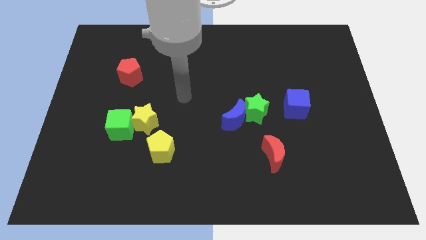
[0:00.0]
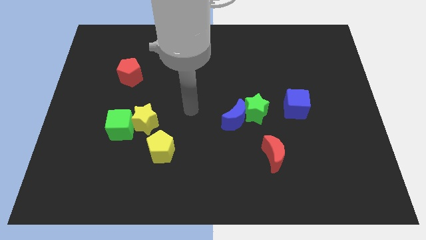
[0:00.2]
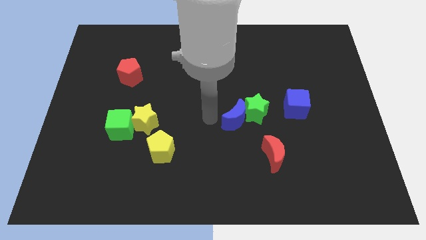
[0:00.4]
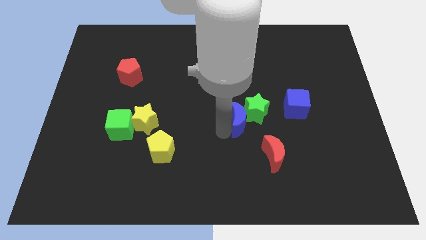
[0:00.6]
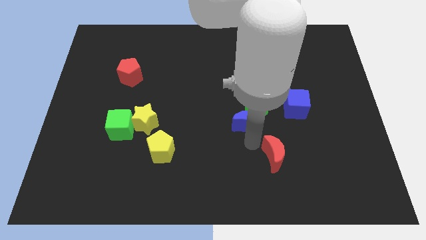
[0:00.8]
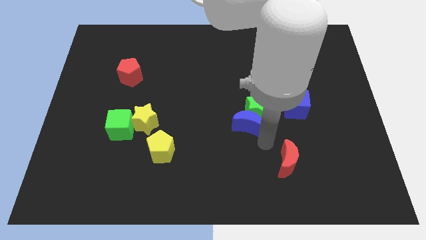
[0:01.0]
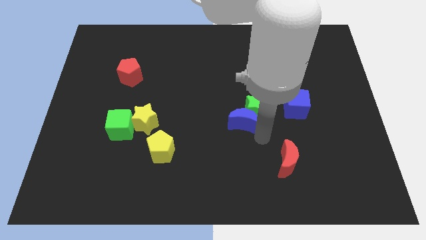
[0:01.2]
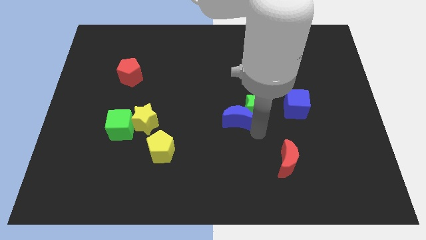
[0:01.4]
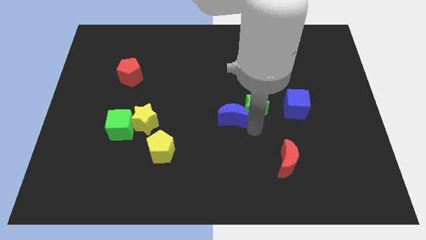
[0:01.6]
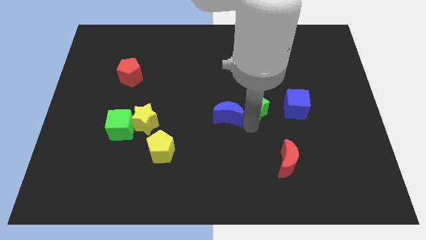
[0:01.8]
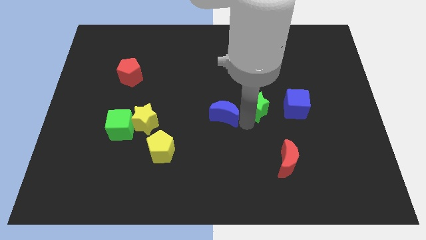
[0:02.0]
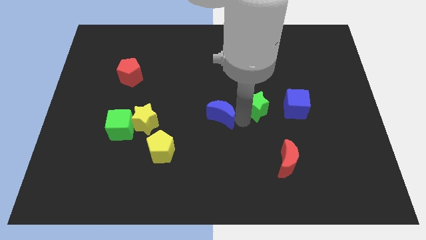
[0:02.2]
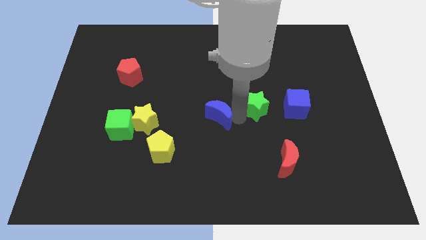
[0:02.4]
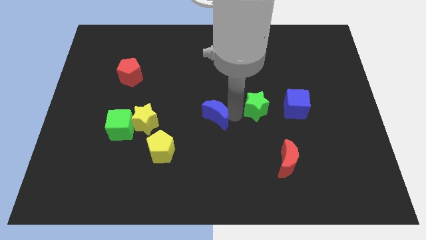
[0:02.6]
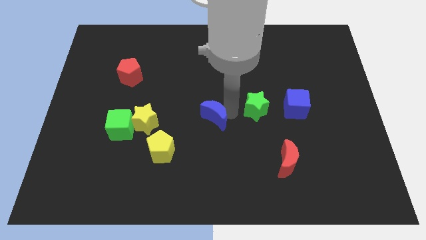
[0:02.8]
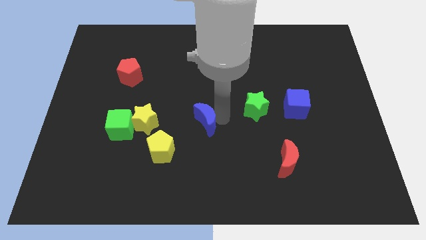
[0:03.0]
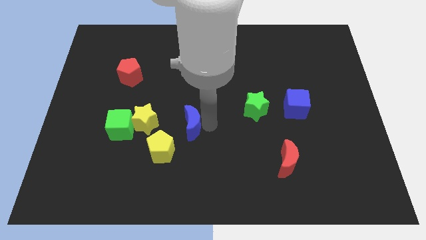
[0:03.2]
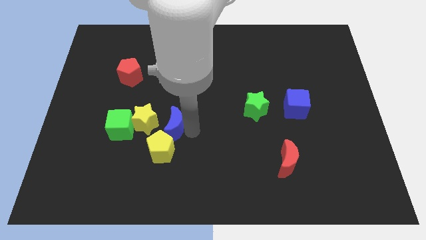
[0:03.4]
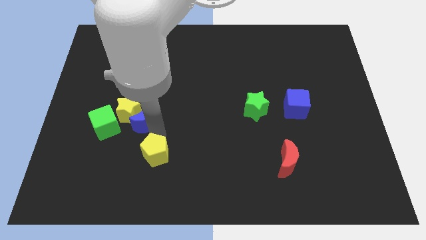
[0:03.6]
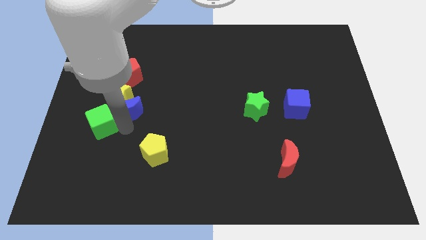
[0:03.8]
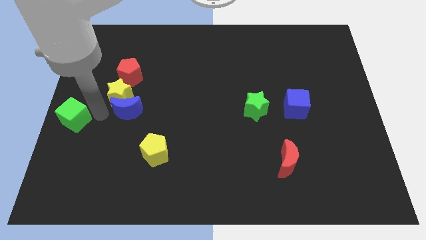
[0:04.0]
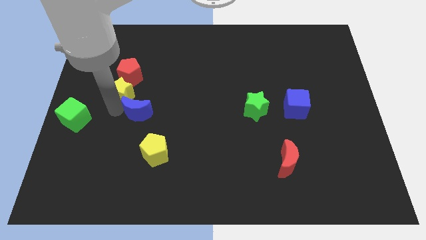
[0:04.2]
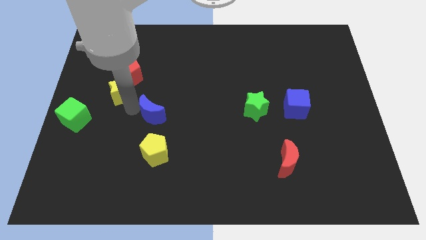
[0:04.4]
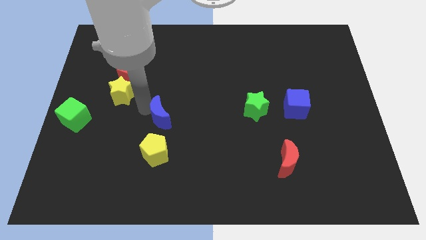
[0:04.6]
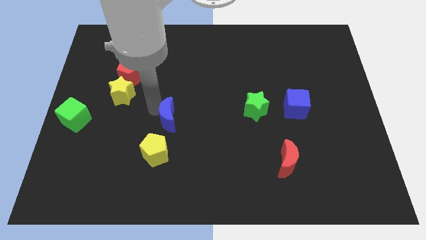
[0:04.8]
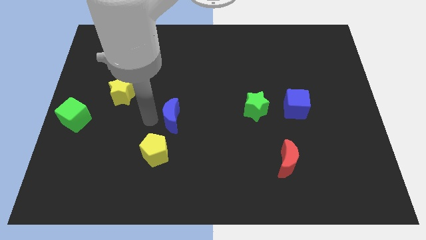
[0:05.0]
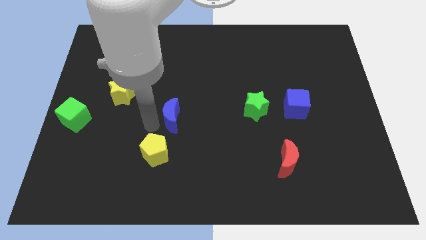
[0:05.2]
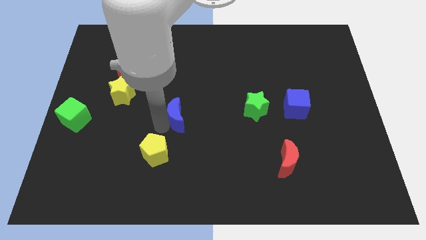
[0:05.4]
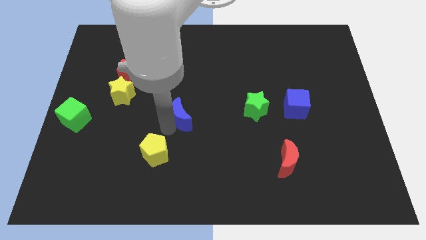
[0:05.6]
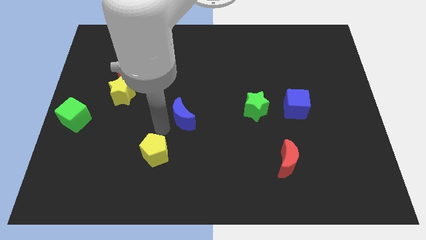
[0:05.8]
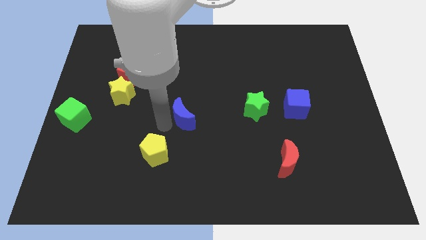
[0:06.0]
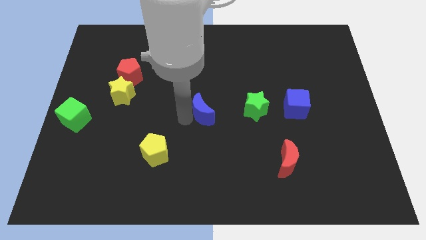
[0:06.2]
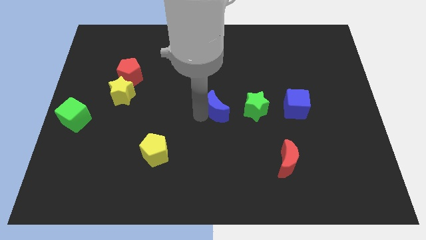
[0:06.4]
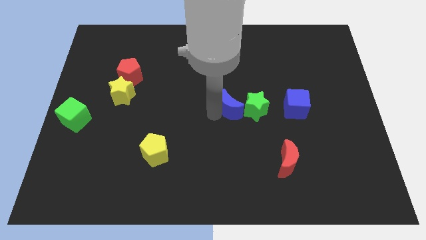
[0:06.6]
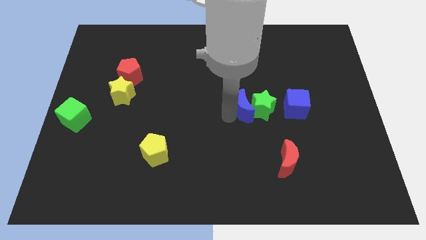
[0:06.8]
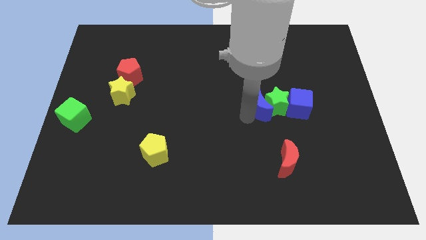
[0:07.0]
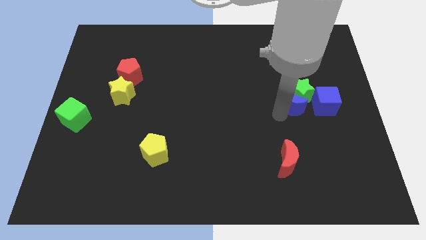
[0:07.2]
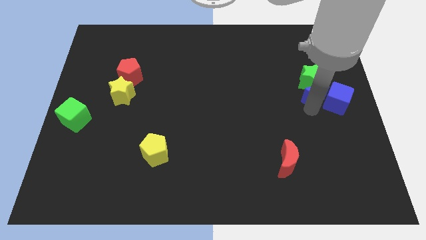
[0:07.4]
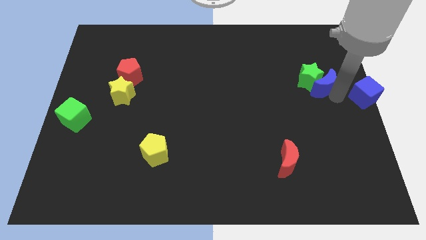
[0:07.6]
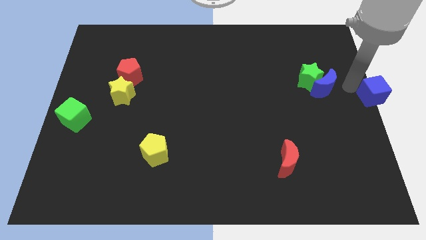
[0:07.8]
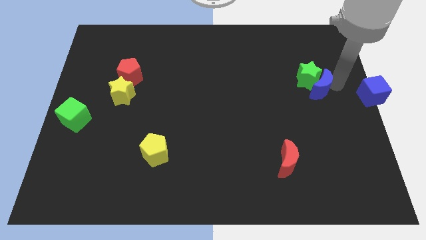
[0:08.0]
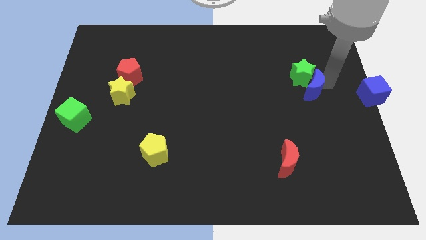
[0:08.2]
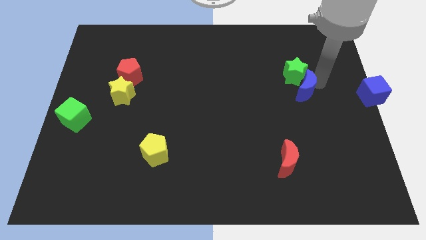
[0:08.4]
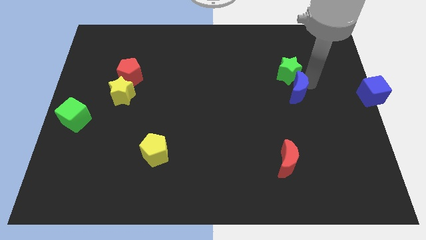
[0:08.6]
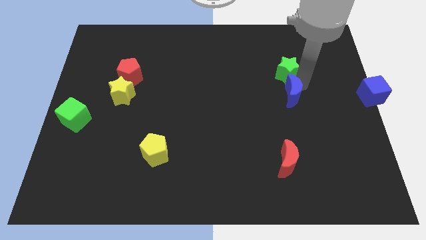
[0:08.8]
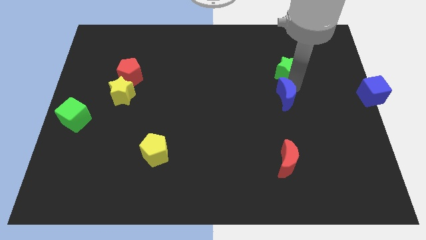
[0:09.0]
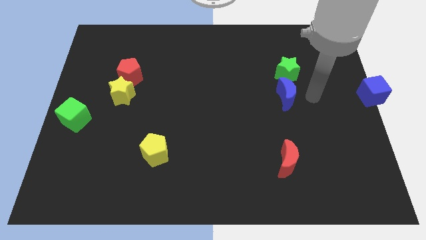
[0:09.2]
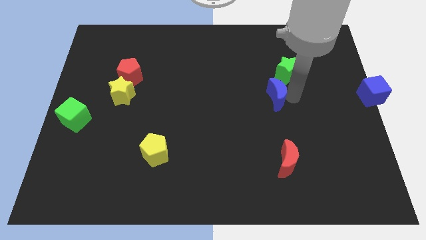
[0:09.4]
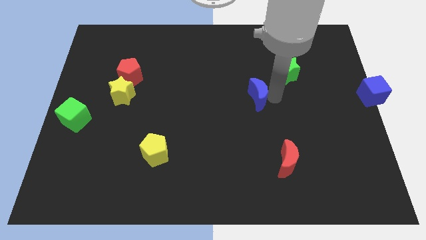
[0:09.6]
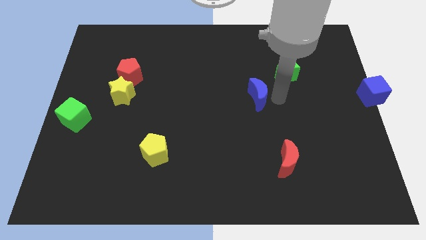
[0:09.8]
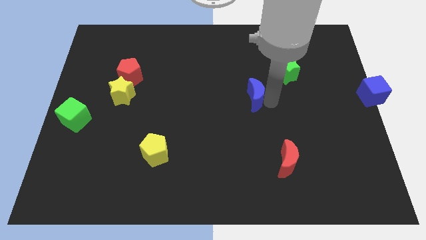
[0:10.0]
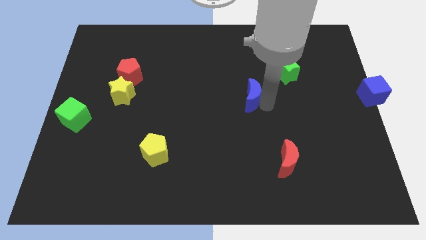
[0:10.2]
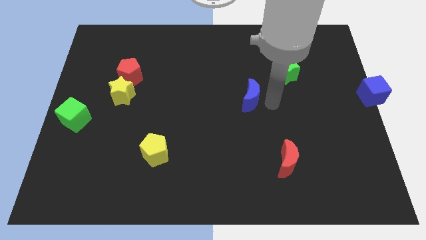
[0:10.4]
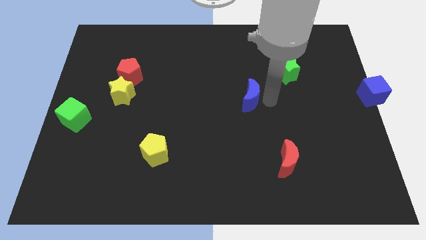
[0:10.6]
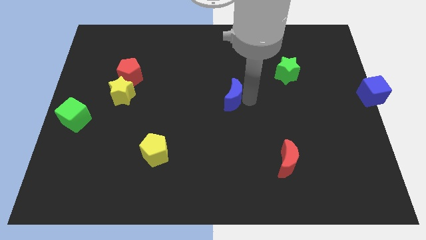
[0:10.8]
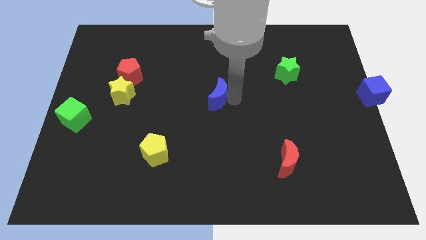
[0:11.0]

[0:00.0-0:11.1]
slightly slide the blue moon up and left diagonally

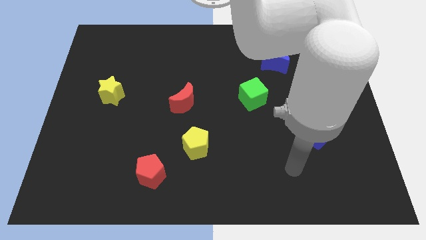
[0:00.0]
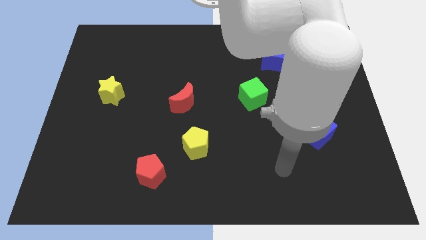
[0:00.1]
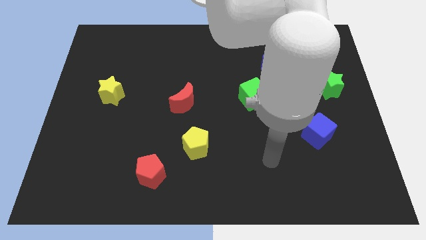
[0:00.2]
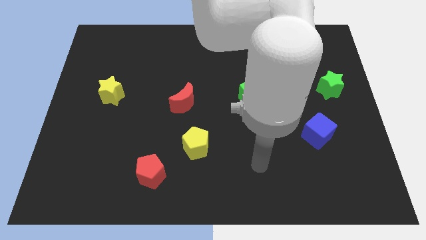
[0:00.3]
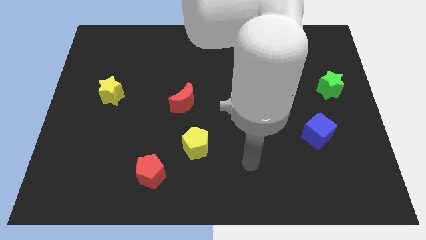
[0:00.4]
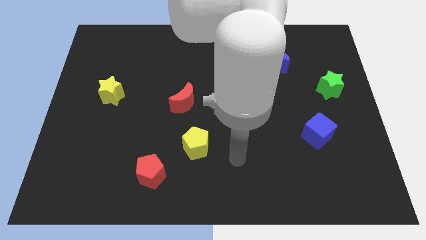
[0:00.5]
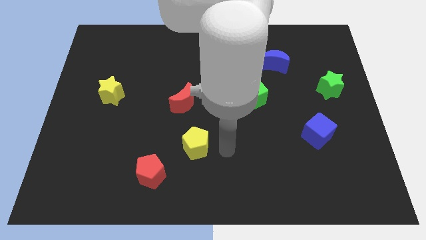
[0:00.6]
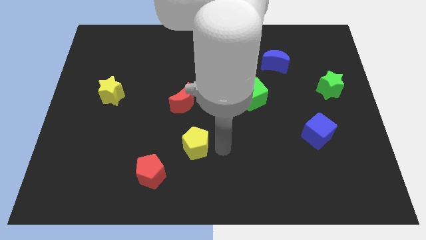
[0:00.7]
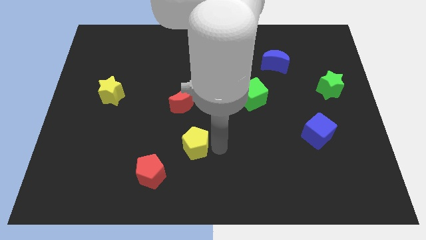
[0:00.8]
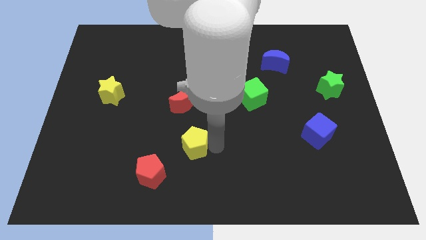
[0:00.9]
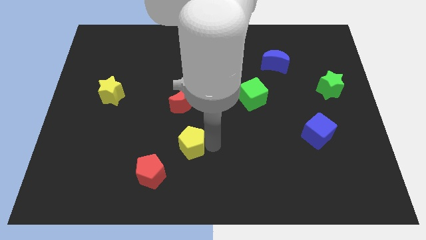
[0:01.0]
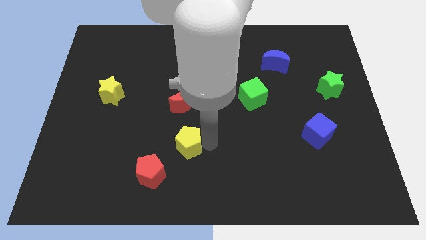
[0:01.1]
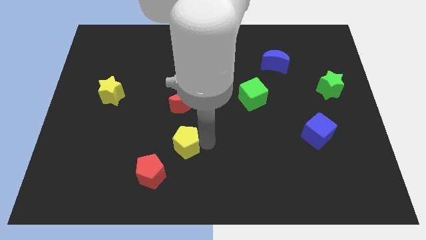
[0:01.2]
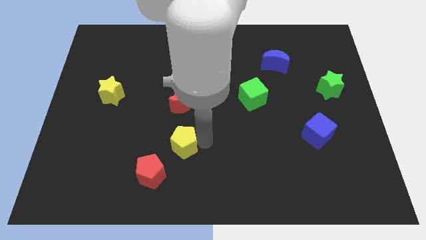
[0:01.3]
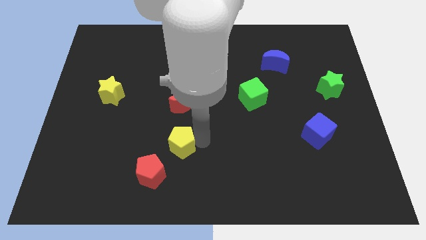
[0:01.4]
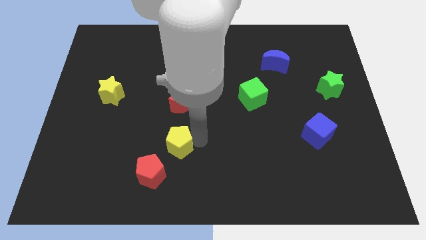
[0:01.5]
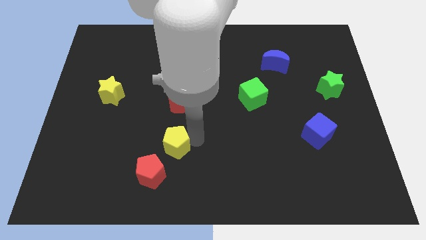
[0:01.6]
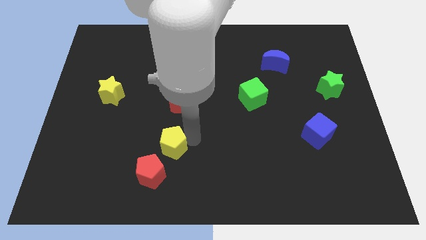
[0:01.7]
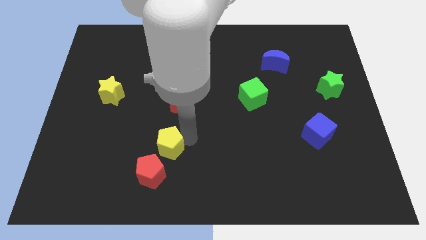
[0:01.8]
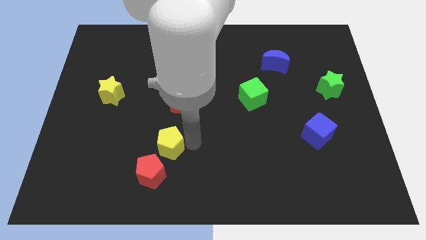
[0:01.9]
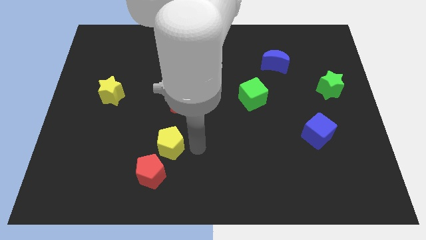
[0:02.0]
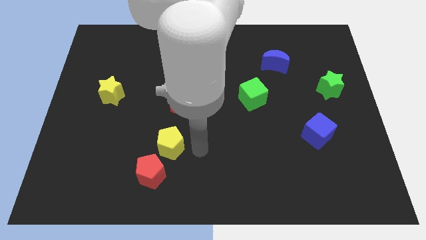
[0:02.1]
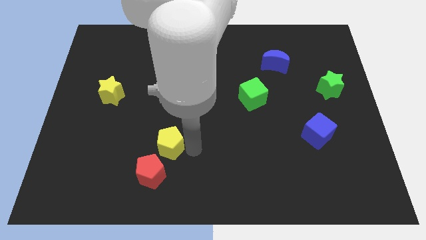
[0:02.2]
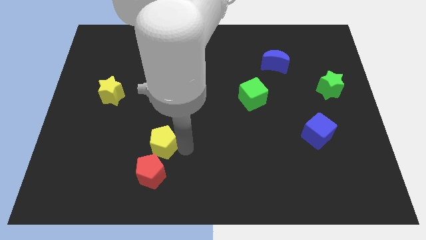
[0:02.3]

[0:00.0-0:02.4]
push the yellow pentagon a bit to the left
